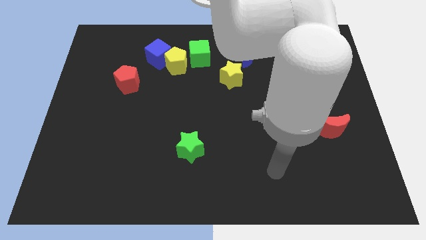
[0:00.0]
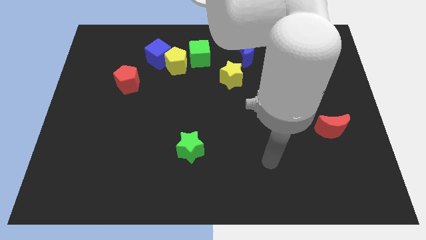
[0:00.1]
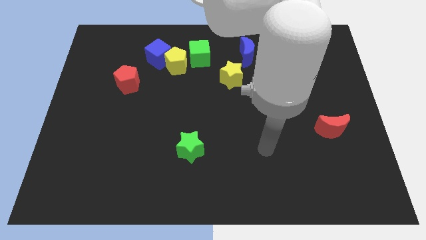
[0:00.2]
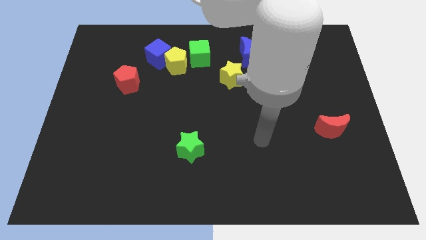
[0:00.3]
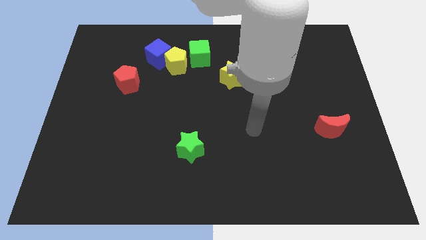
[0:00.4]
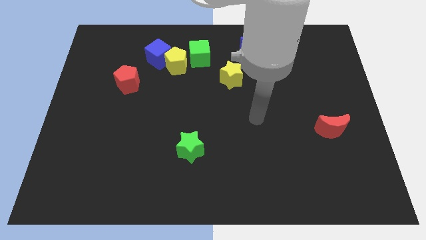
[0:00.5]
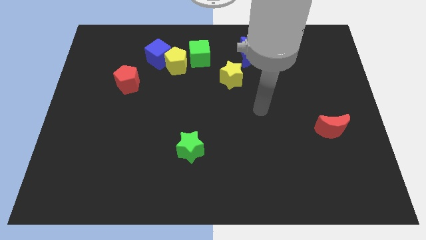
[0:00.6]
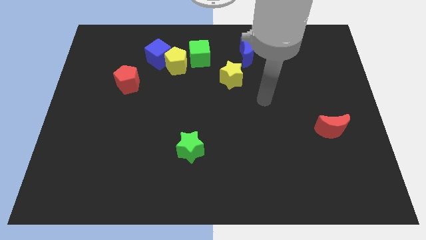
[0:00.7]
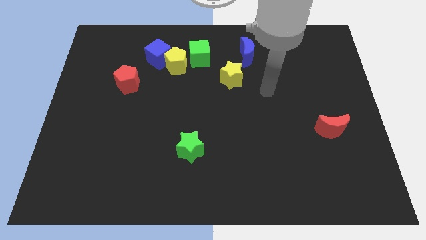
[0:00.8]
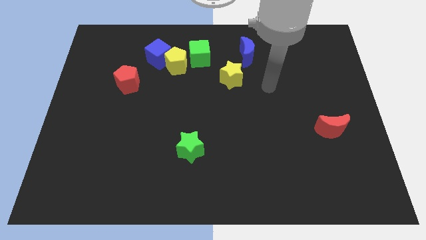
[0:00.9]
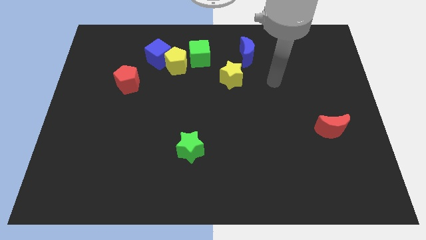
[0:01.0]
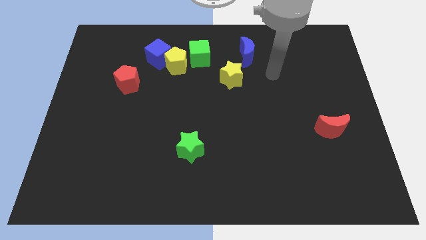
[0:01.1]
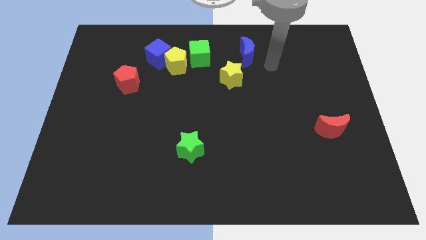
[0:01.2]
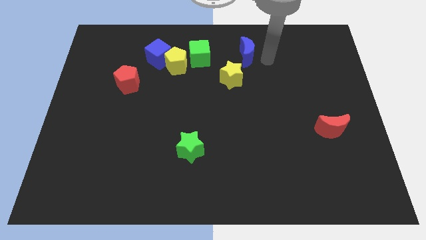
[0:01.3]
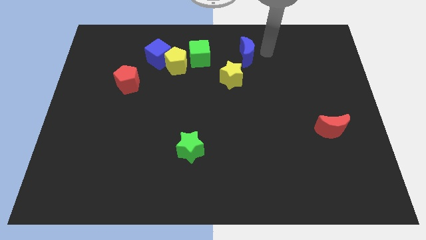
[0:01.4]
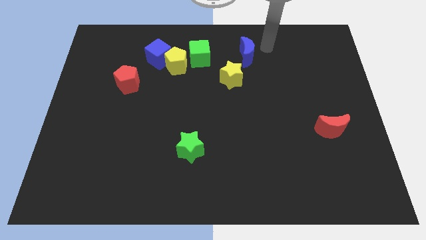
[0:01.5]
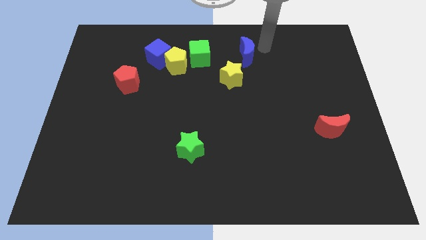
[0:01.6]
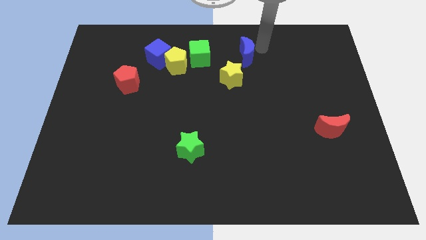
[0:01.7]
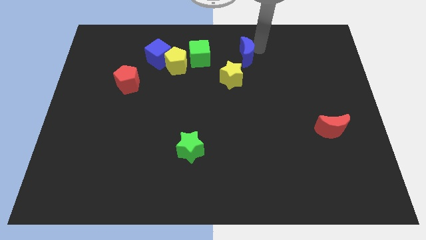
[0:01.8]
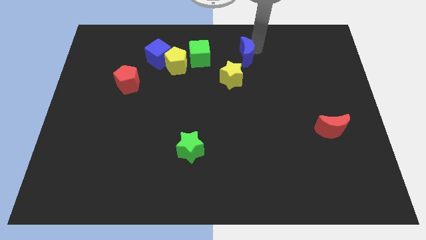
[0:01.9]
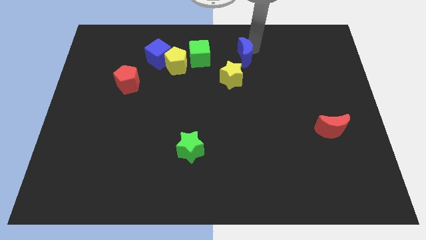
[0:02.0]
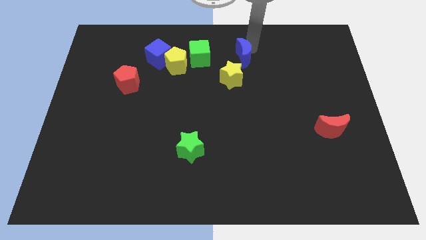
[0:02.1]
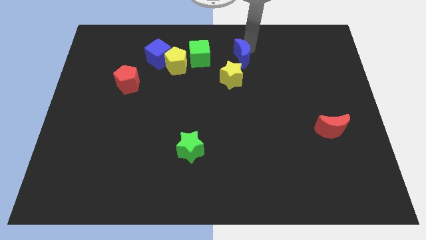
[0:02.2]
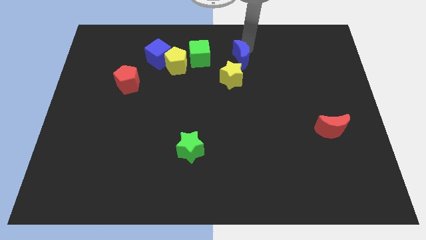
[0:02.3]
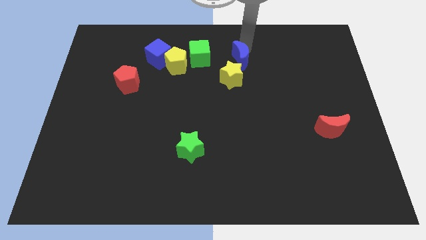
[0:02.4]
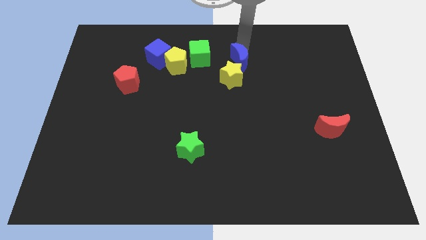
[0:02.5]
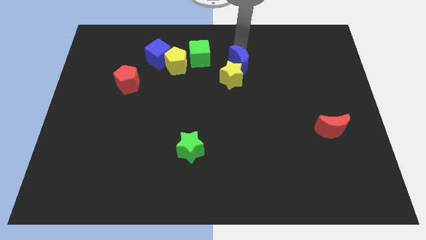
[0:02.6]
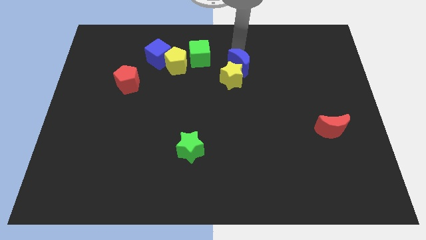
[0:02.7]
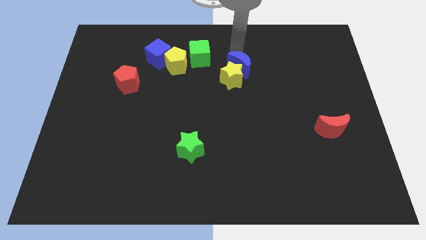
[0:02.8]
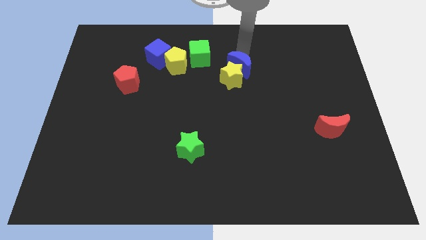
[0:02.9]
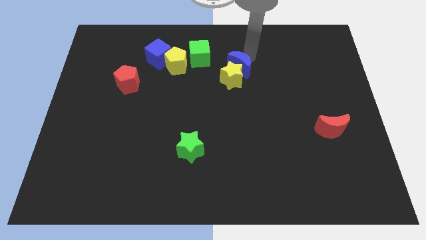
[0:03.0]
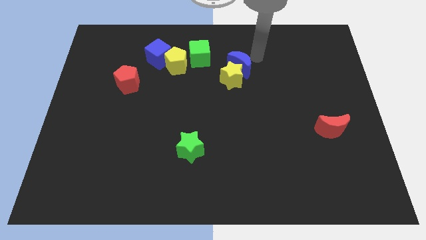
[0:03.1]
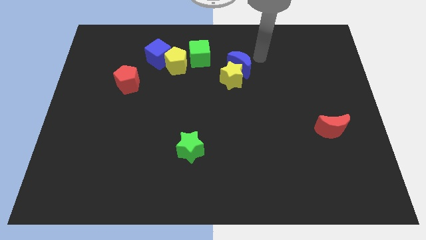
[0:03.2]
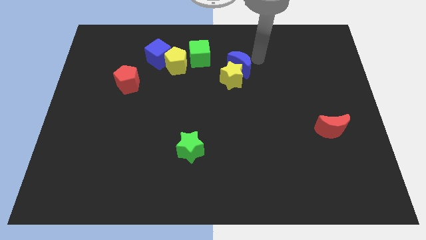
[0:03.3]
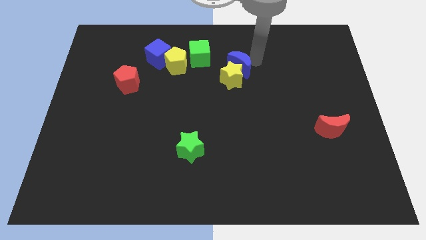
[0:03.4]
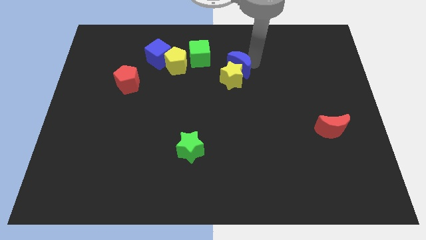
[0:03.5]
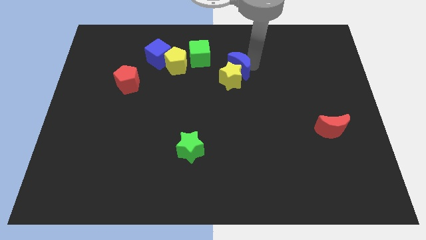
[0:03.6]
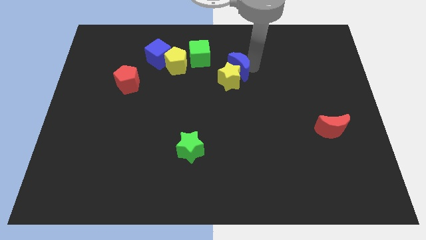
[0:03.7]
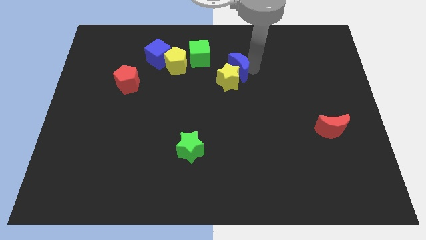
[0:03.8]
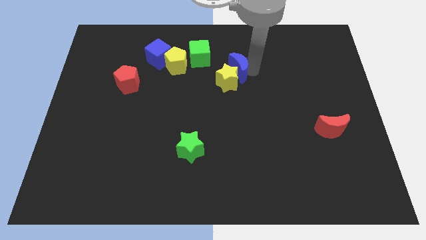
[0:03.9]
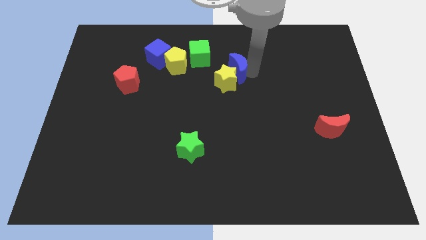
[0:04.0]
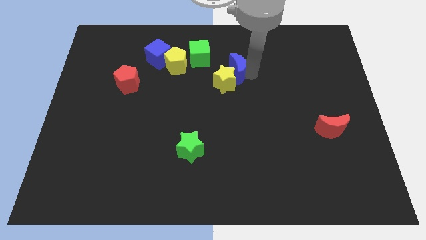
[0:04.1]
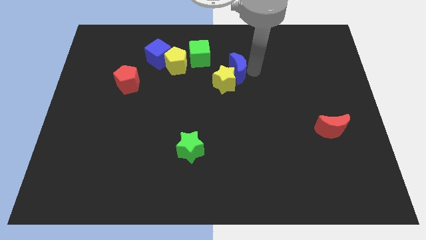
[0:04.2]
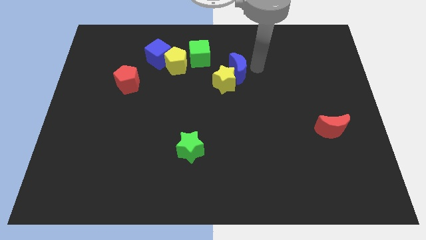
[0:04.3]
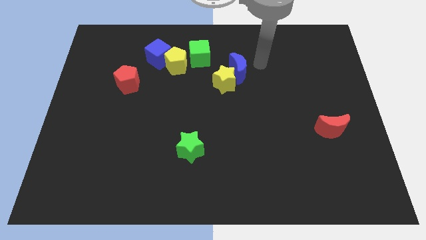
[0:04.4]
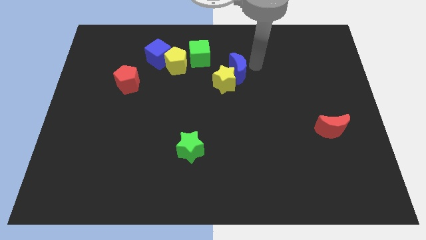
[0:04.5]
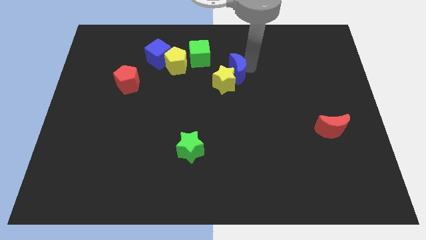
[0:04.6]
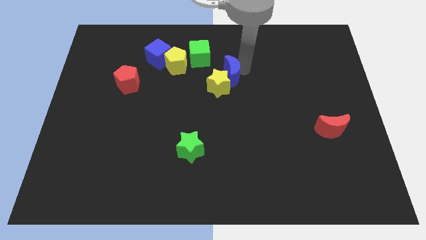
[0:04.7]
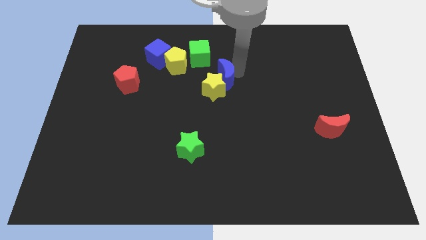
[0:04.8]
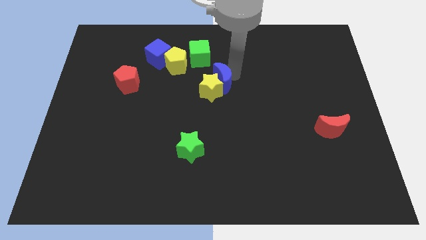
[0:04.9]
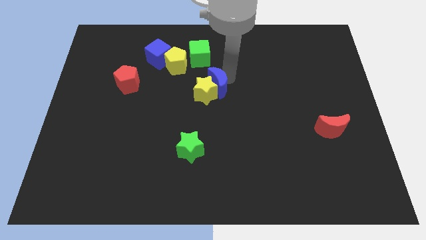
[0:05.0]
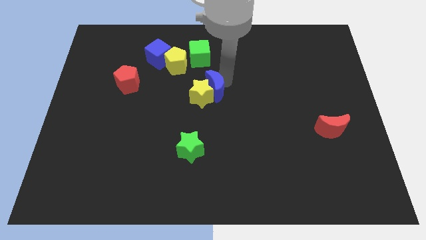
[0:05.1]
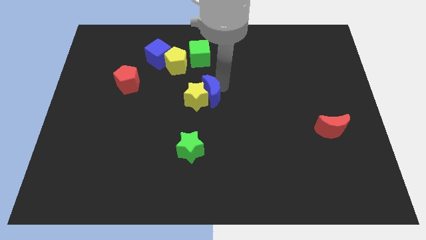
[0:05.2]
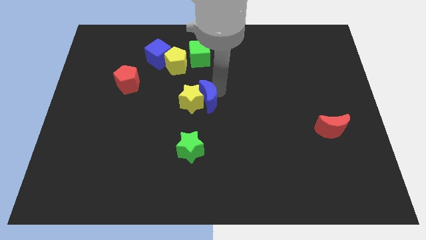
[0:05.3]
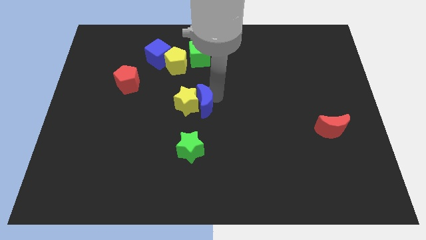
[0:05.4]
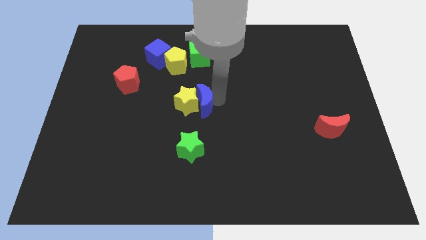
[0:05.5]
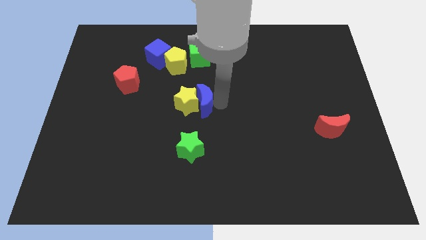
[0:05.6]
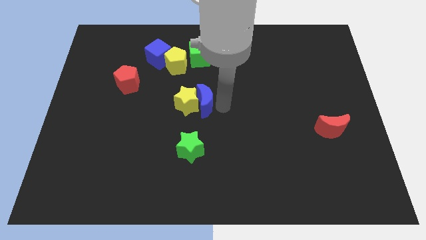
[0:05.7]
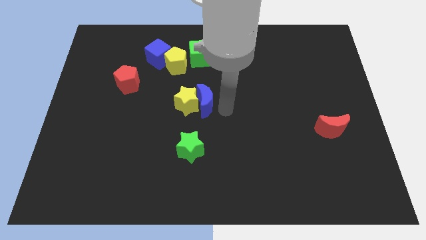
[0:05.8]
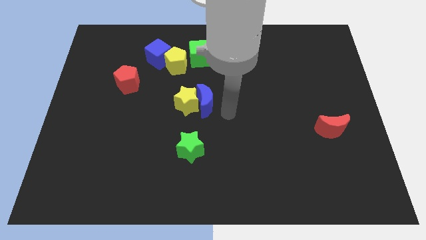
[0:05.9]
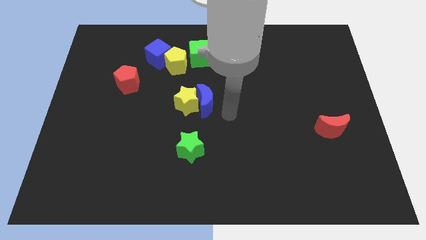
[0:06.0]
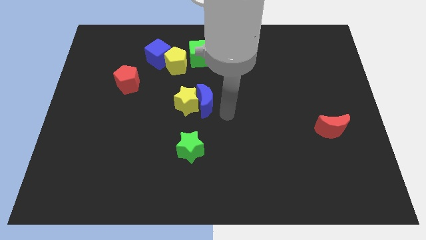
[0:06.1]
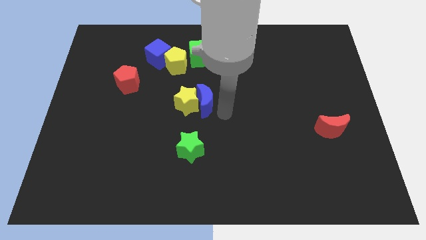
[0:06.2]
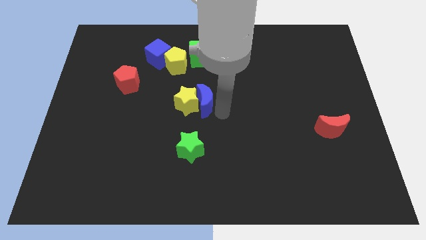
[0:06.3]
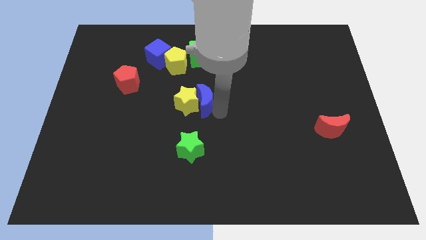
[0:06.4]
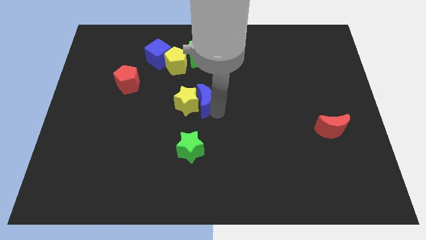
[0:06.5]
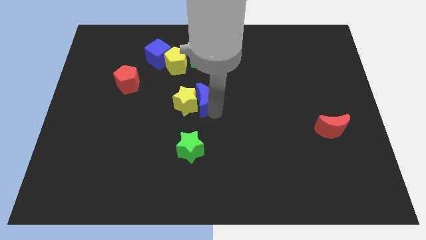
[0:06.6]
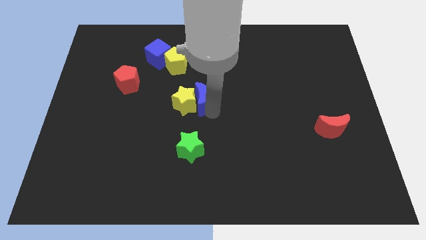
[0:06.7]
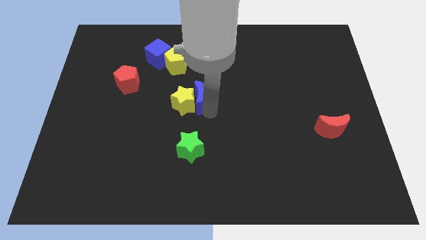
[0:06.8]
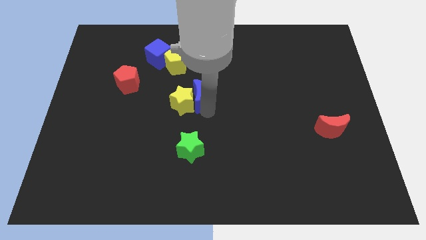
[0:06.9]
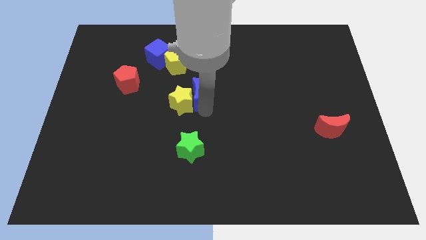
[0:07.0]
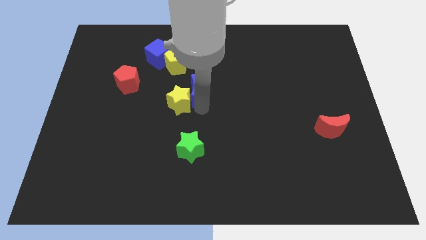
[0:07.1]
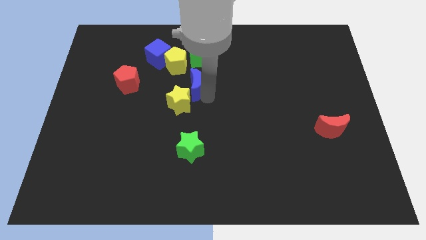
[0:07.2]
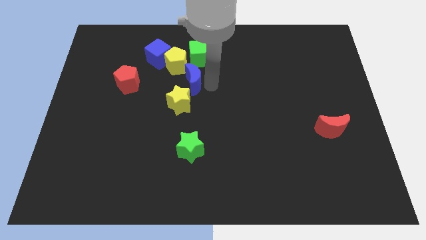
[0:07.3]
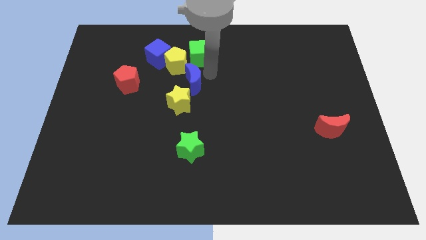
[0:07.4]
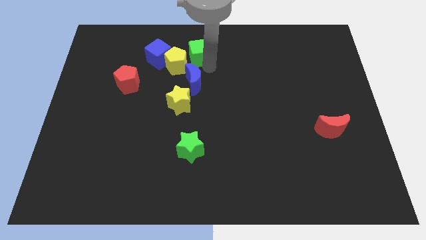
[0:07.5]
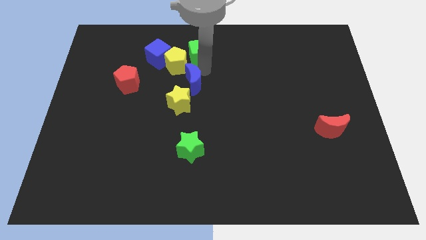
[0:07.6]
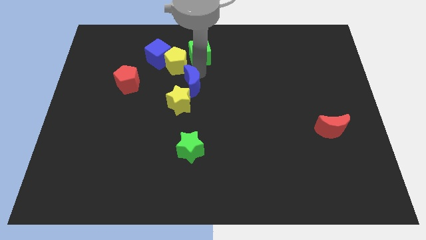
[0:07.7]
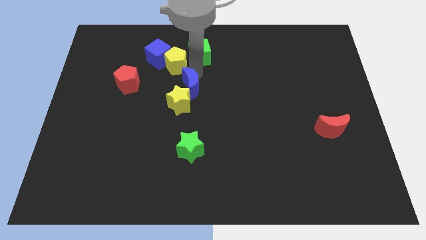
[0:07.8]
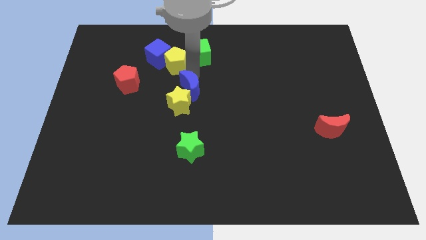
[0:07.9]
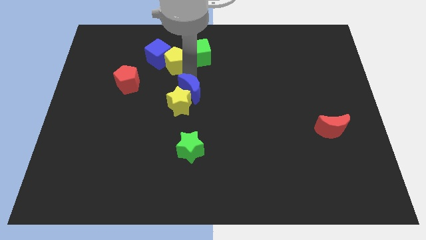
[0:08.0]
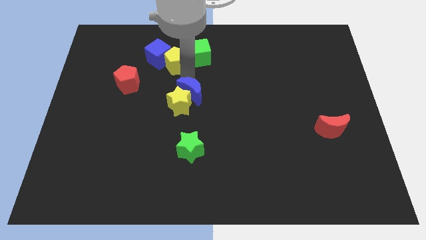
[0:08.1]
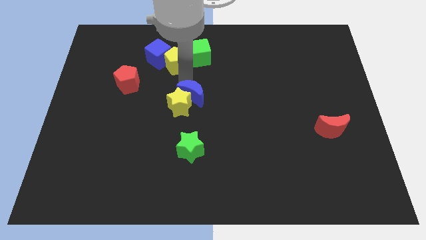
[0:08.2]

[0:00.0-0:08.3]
move the blue moon downwards and to the left

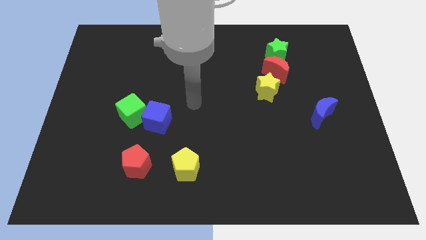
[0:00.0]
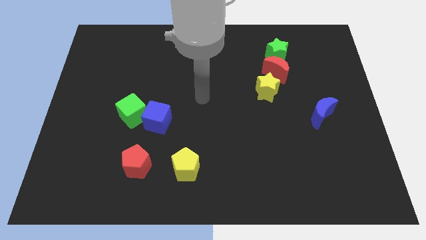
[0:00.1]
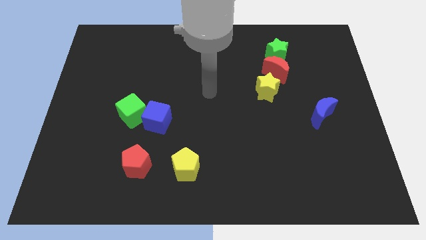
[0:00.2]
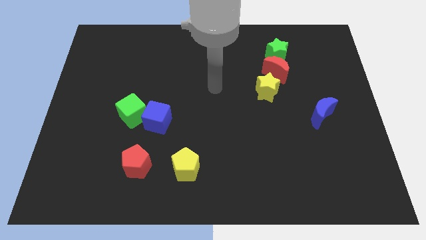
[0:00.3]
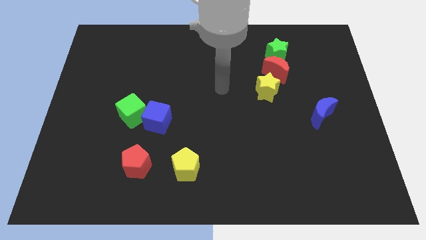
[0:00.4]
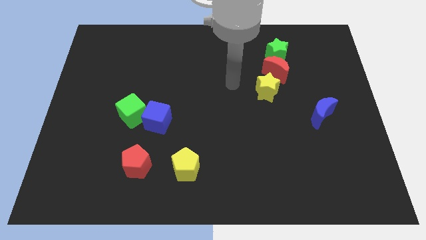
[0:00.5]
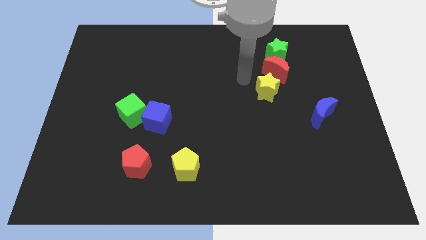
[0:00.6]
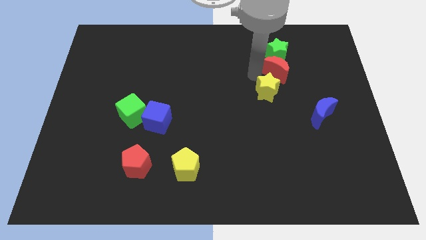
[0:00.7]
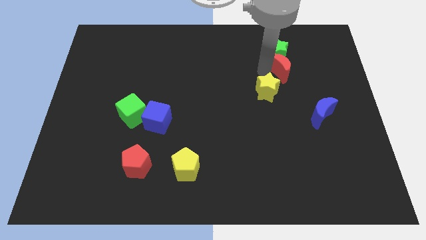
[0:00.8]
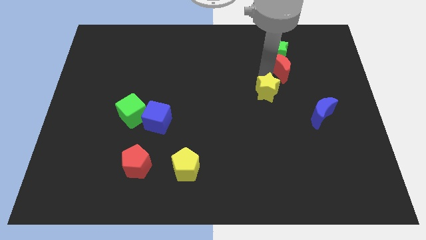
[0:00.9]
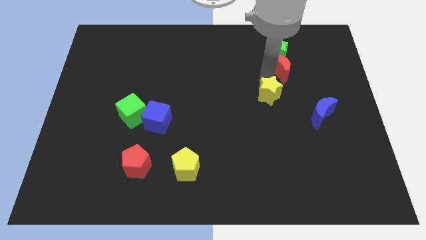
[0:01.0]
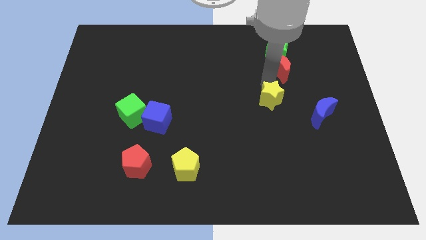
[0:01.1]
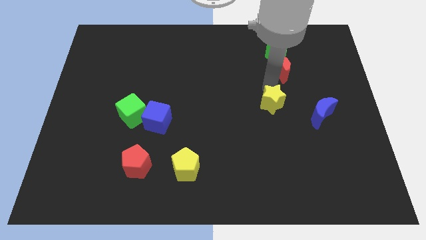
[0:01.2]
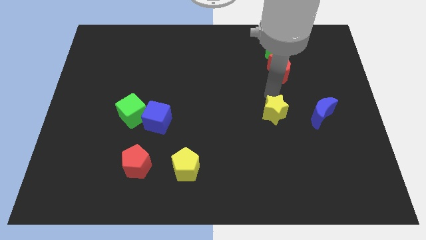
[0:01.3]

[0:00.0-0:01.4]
slightly push the yellow star down
